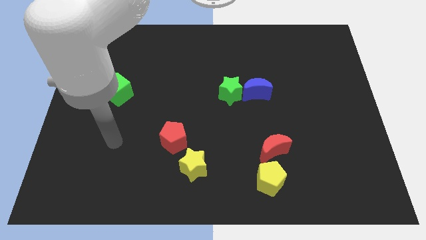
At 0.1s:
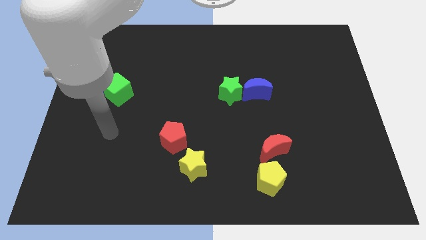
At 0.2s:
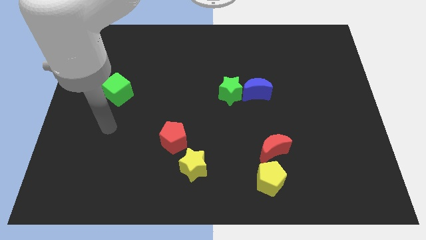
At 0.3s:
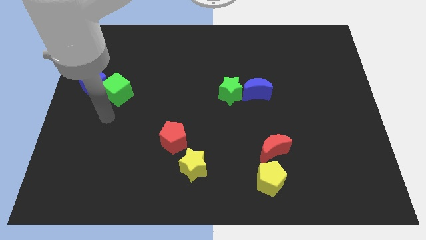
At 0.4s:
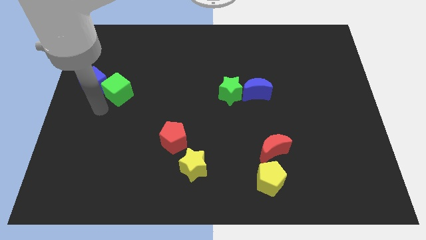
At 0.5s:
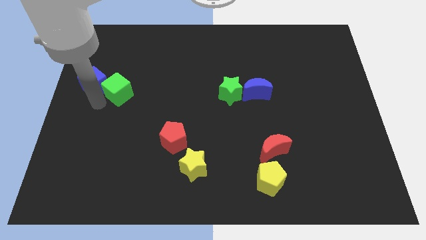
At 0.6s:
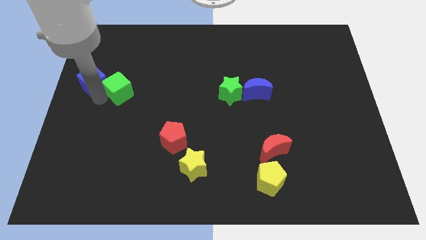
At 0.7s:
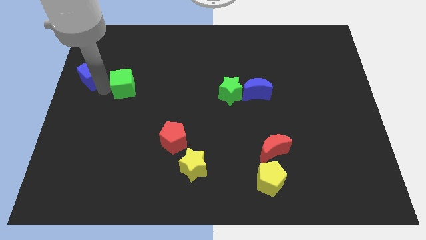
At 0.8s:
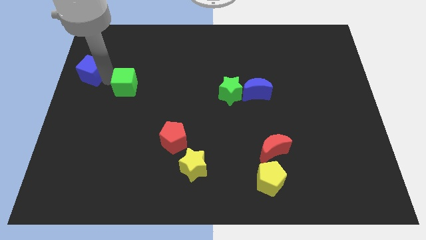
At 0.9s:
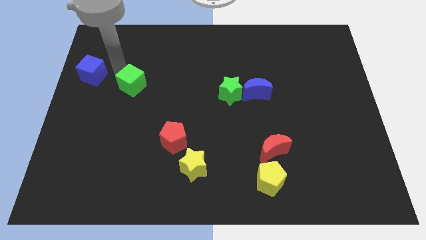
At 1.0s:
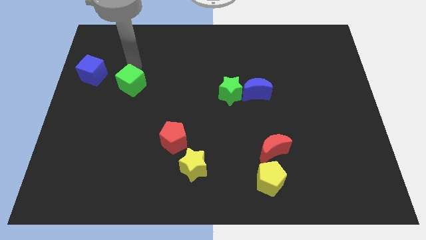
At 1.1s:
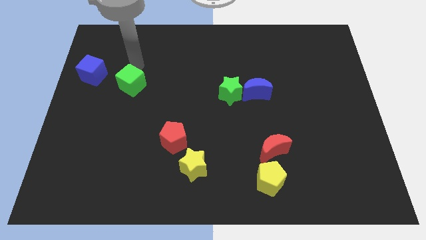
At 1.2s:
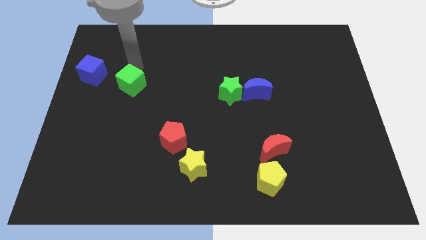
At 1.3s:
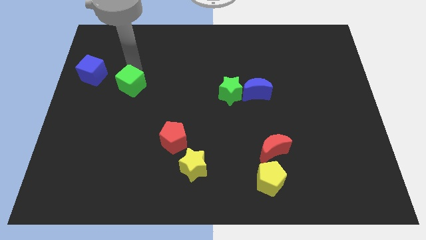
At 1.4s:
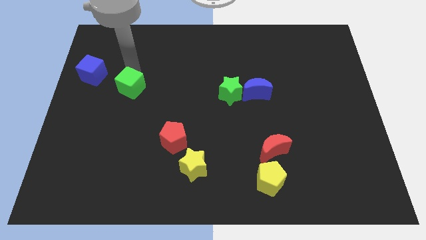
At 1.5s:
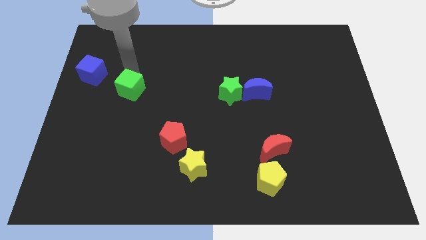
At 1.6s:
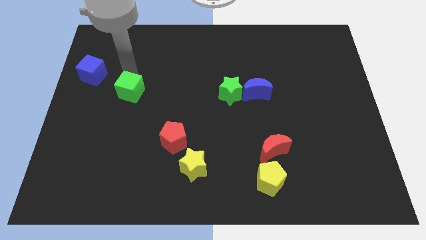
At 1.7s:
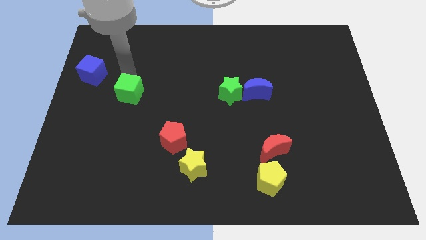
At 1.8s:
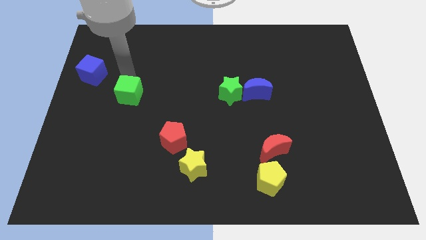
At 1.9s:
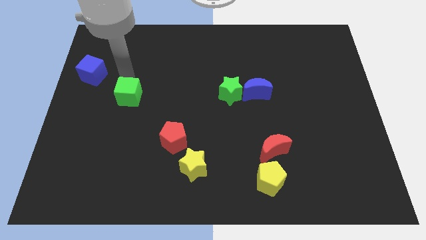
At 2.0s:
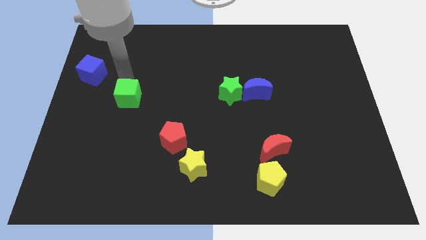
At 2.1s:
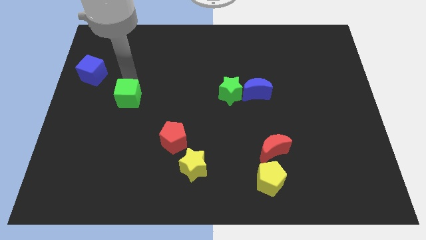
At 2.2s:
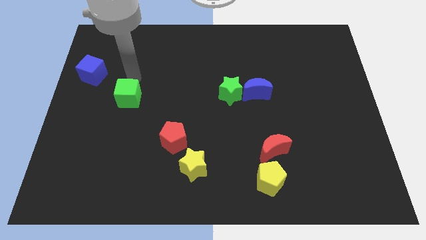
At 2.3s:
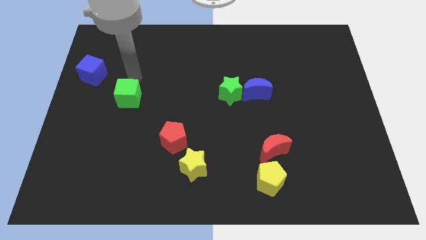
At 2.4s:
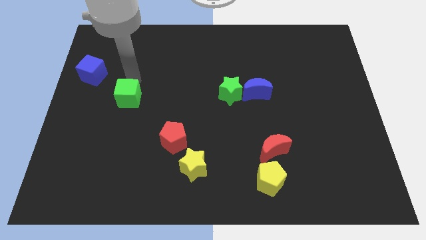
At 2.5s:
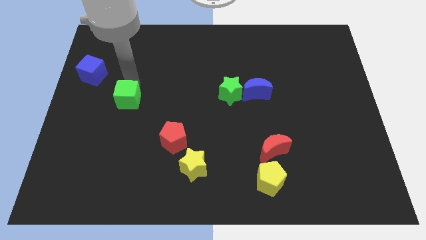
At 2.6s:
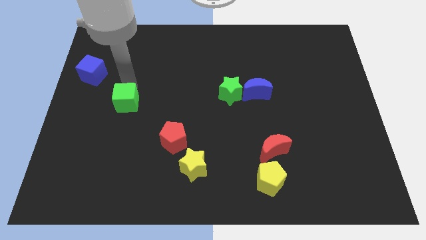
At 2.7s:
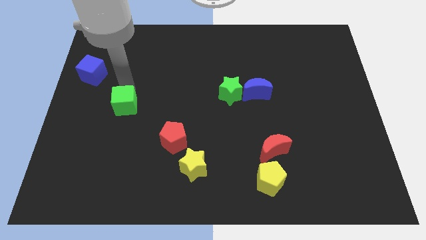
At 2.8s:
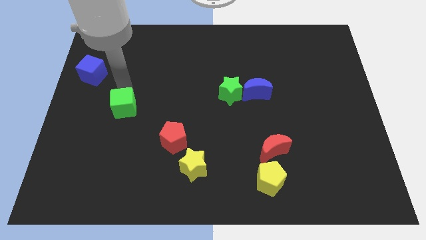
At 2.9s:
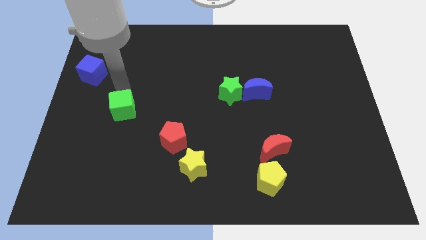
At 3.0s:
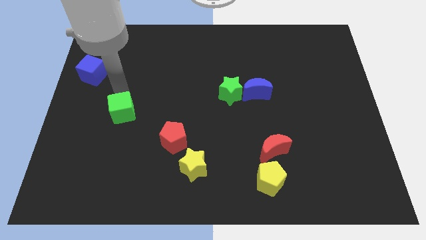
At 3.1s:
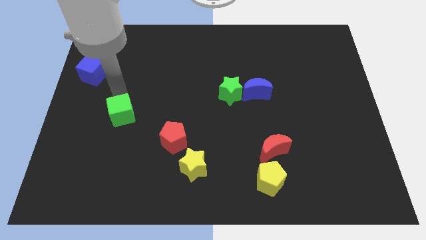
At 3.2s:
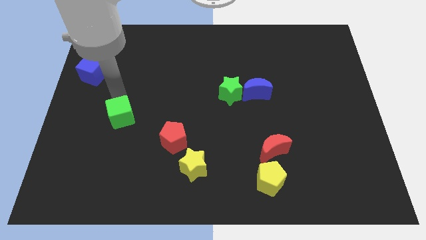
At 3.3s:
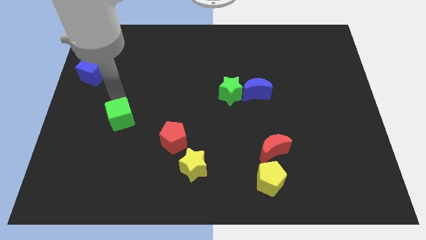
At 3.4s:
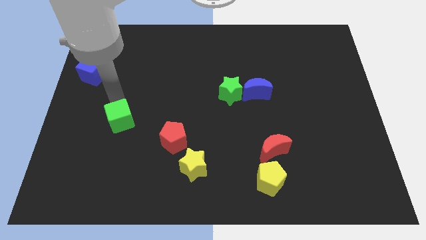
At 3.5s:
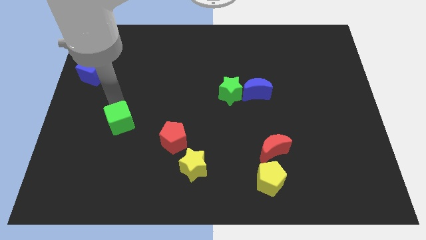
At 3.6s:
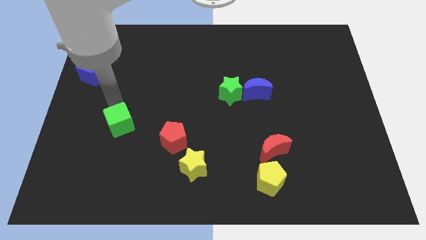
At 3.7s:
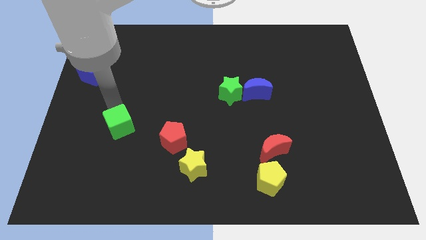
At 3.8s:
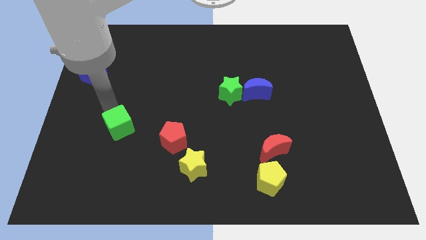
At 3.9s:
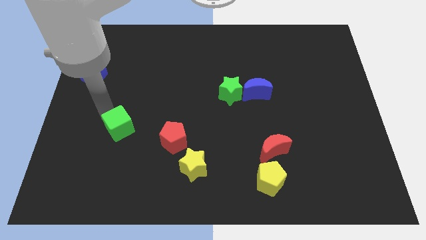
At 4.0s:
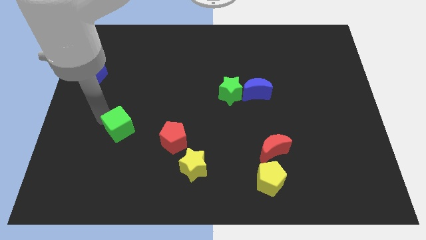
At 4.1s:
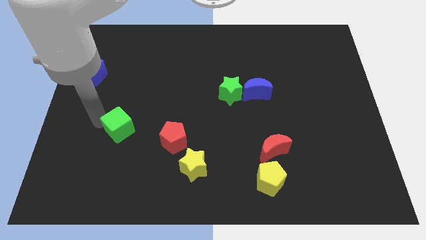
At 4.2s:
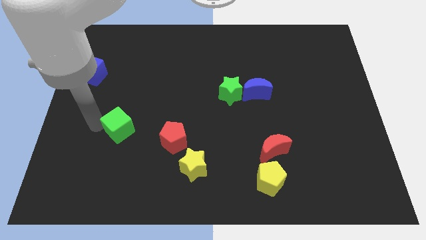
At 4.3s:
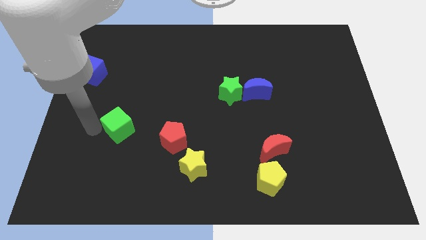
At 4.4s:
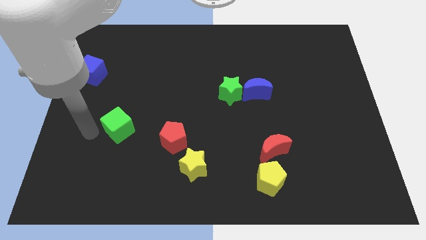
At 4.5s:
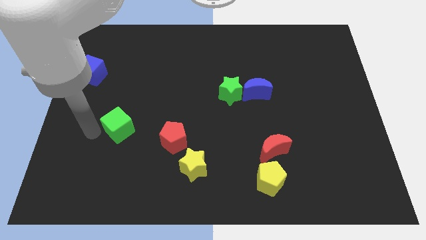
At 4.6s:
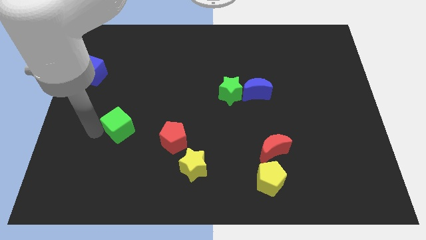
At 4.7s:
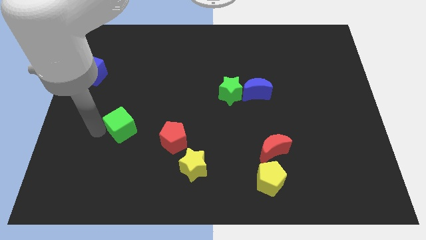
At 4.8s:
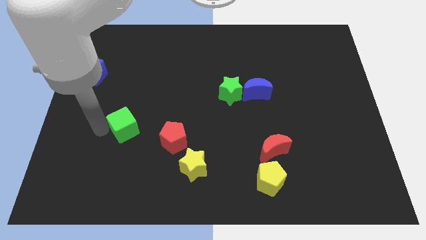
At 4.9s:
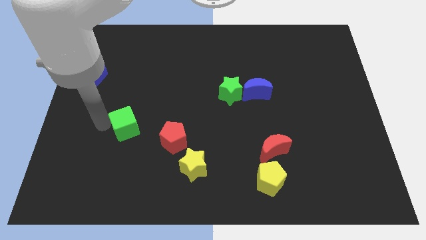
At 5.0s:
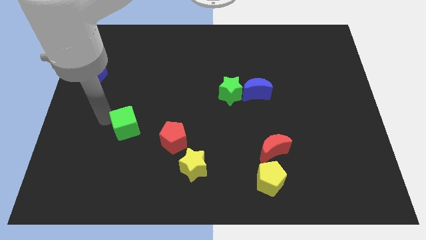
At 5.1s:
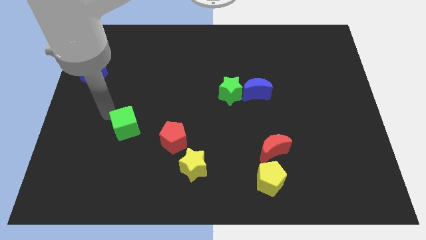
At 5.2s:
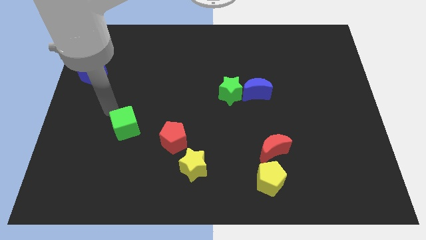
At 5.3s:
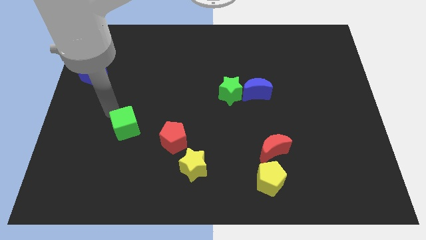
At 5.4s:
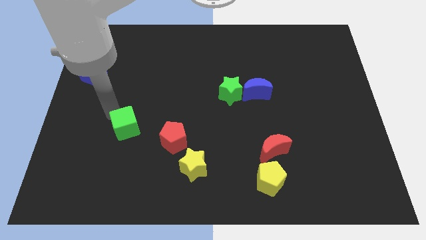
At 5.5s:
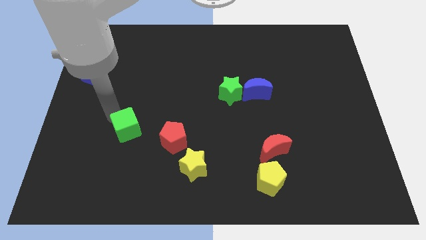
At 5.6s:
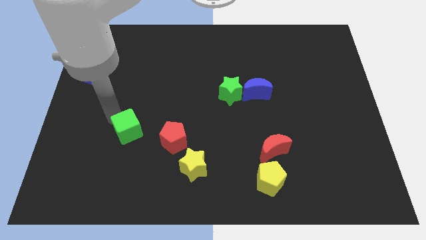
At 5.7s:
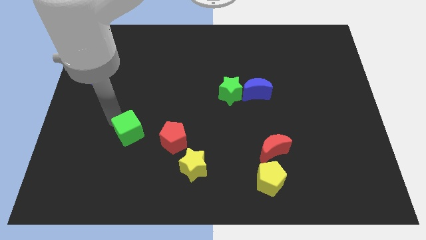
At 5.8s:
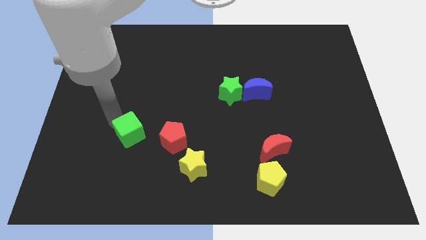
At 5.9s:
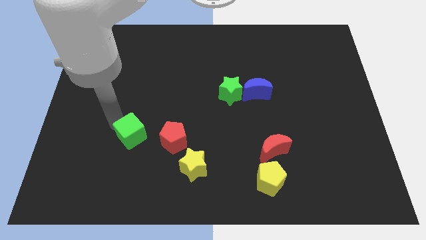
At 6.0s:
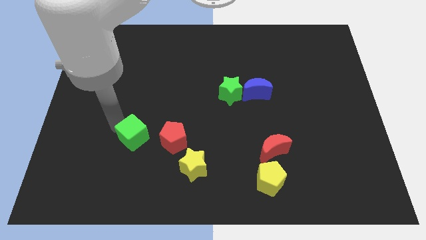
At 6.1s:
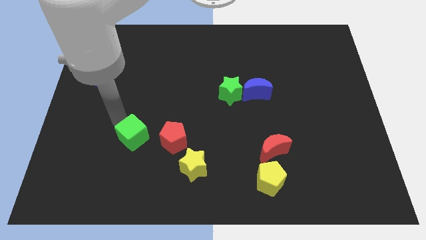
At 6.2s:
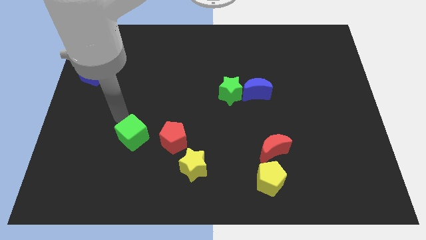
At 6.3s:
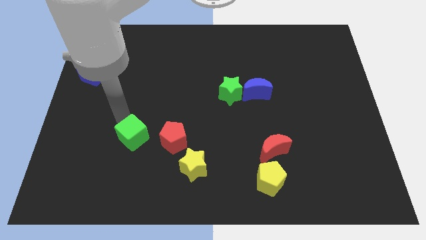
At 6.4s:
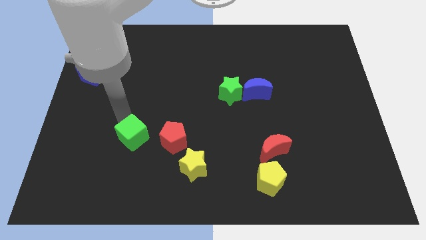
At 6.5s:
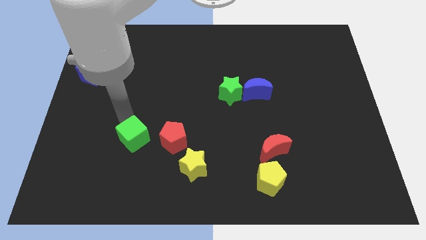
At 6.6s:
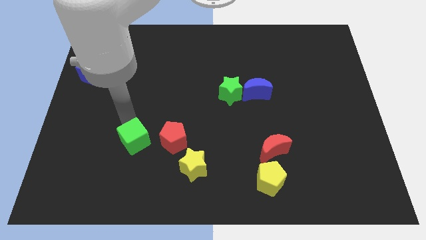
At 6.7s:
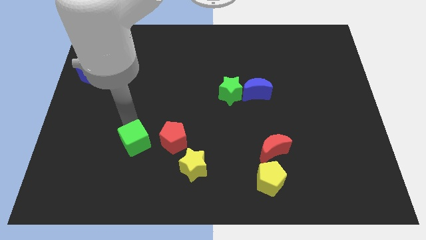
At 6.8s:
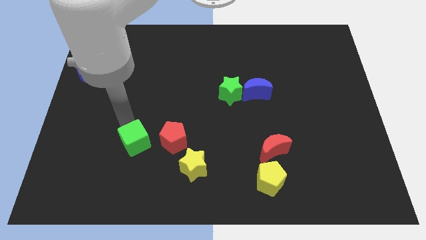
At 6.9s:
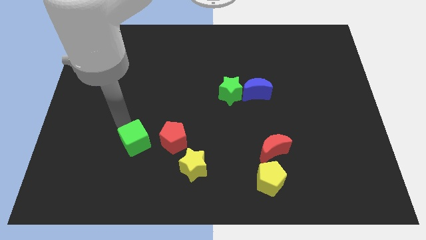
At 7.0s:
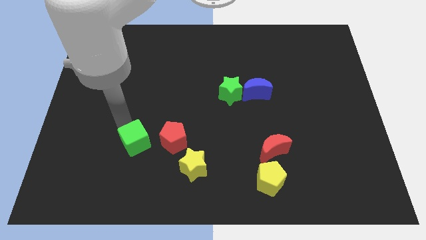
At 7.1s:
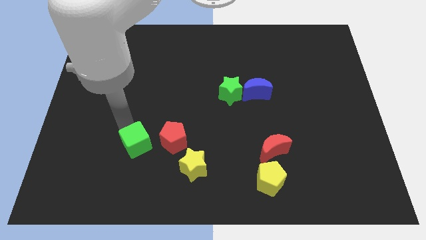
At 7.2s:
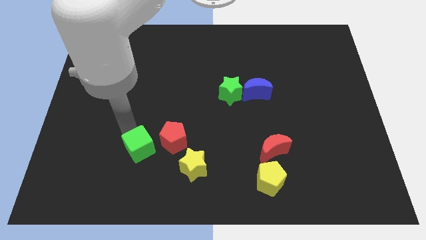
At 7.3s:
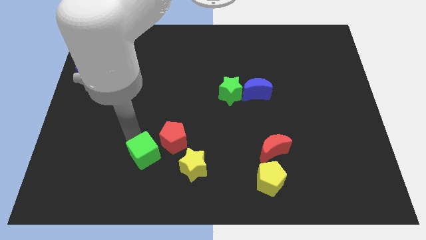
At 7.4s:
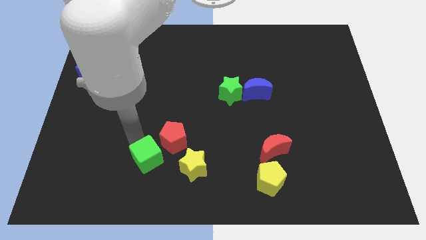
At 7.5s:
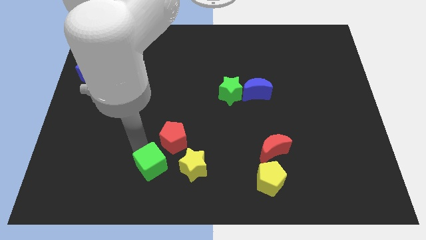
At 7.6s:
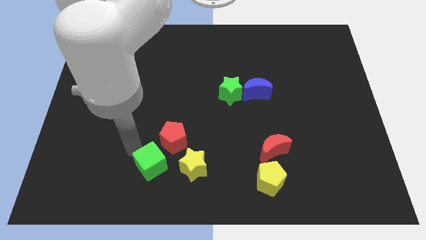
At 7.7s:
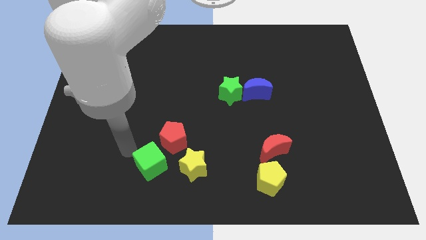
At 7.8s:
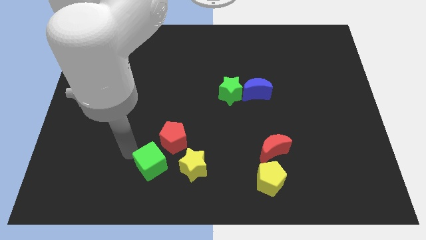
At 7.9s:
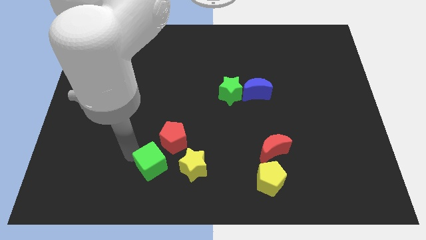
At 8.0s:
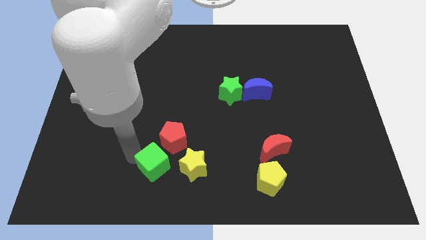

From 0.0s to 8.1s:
push the green cube diagonally downwards and right
